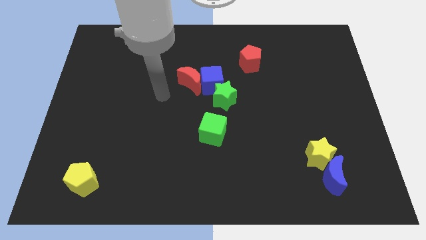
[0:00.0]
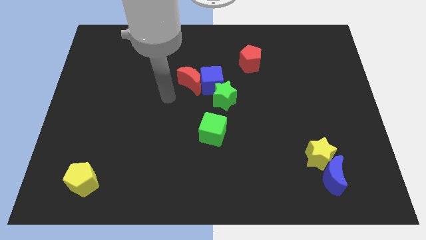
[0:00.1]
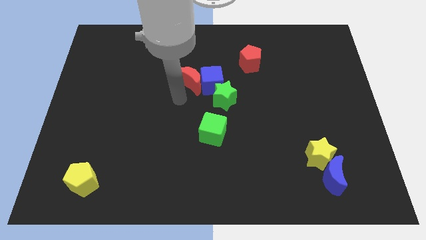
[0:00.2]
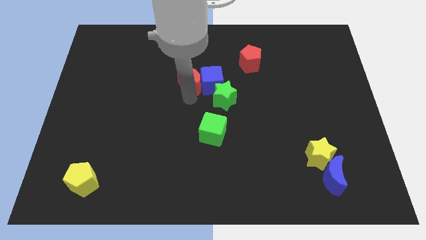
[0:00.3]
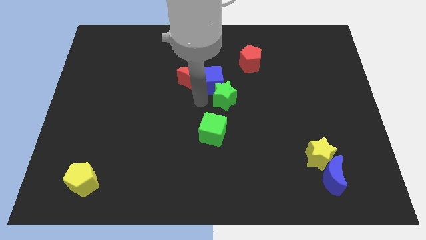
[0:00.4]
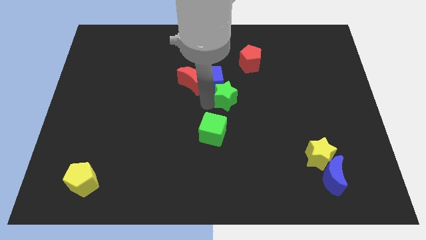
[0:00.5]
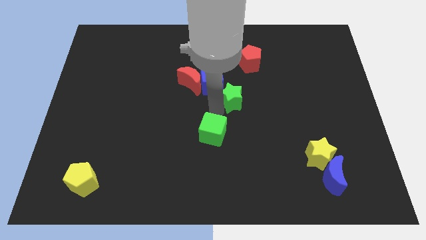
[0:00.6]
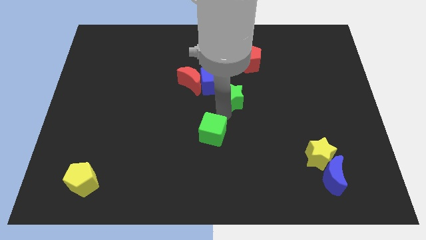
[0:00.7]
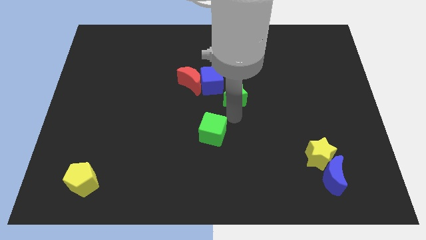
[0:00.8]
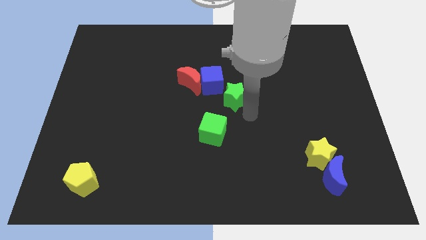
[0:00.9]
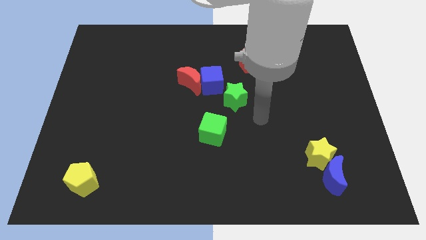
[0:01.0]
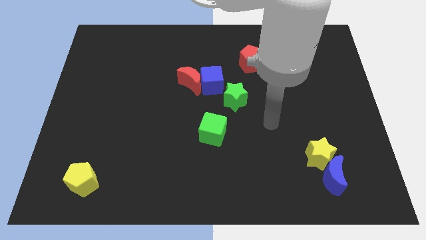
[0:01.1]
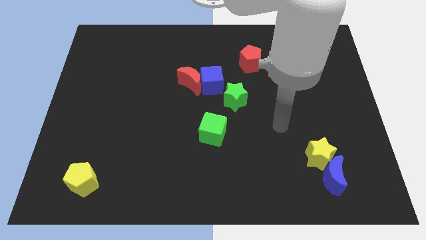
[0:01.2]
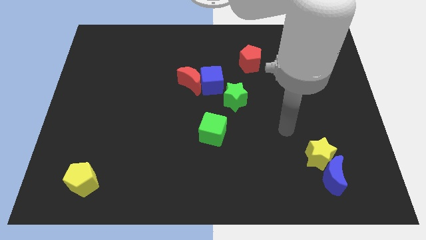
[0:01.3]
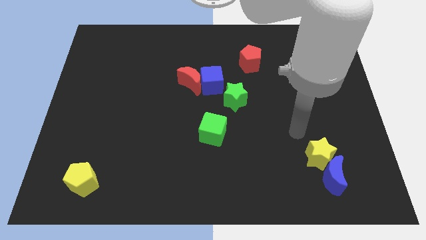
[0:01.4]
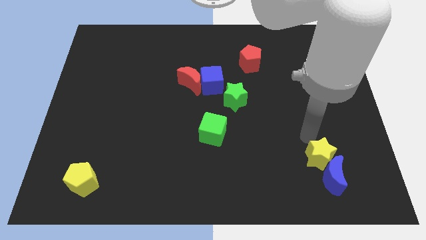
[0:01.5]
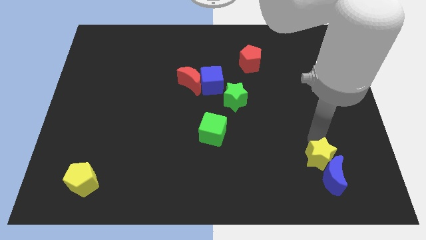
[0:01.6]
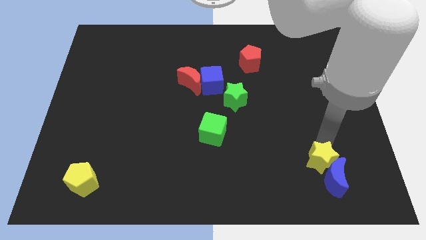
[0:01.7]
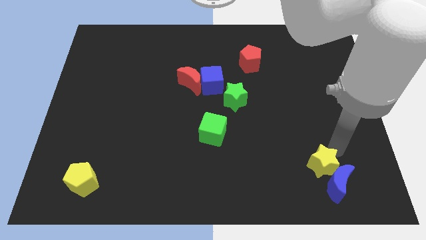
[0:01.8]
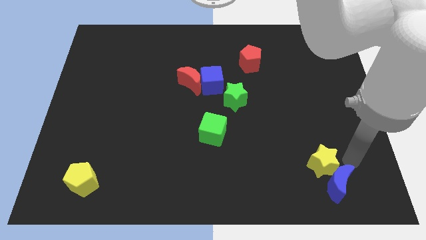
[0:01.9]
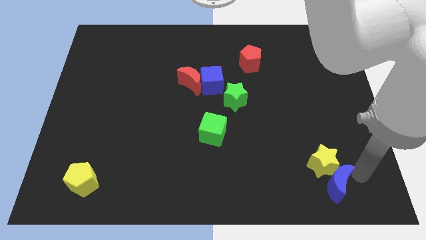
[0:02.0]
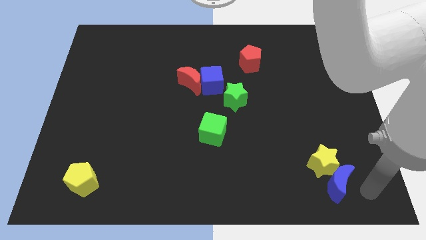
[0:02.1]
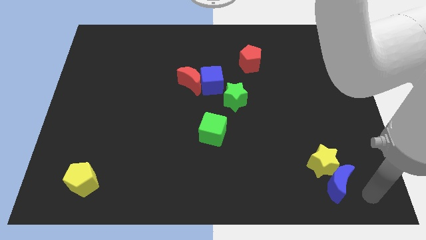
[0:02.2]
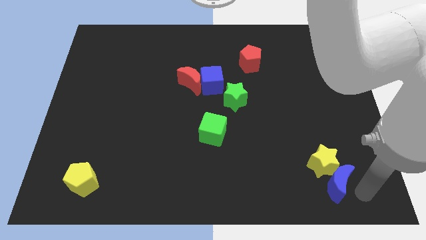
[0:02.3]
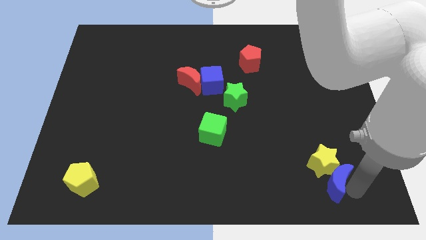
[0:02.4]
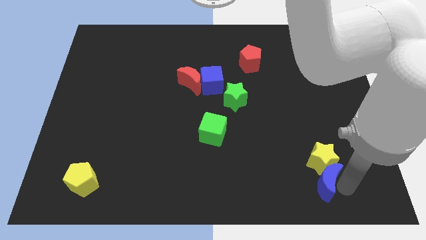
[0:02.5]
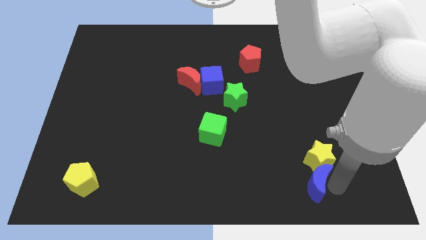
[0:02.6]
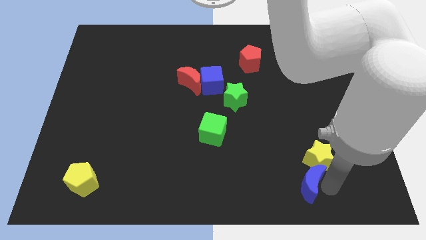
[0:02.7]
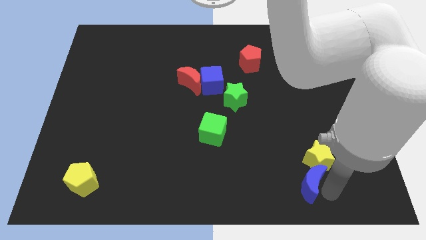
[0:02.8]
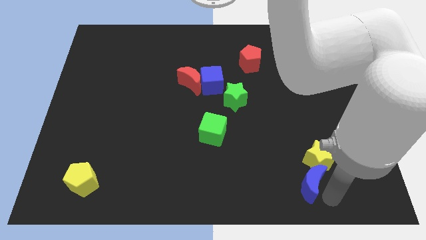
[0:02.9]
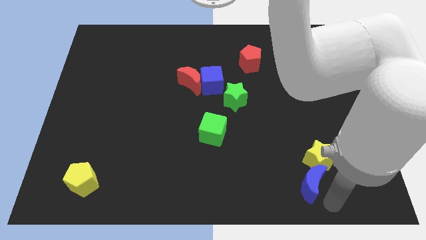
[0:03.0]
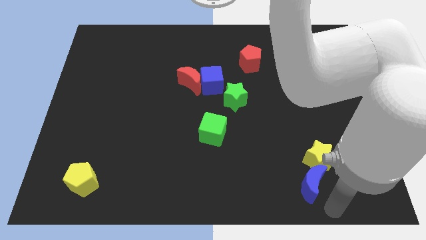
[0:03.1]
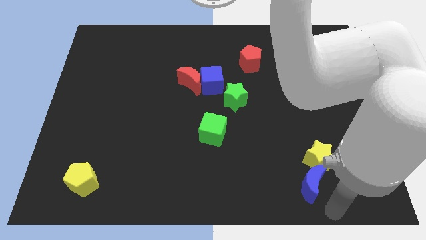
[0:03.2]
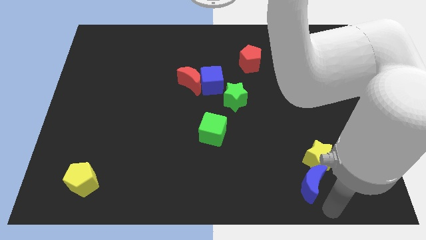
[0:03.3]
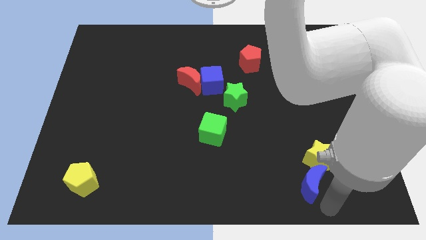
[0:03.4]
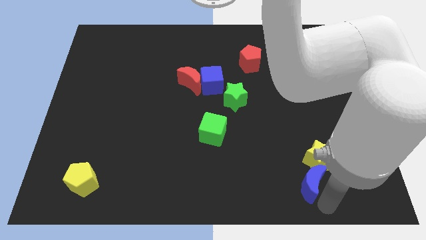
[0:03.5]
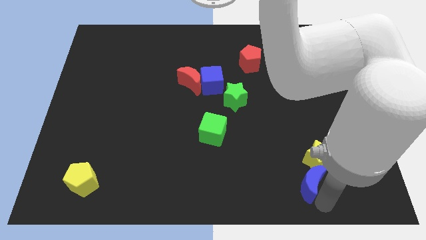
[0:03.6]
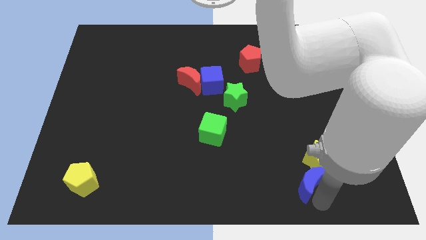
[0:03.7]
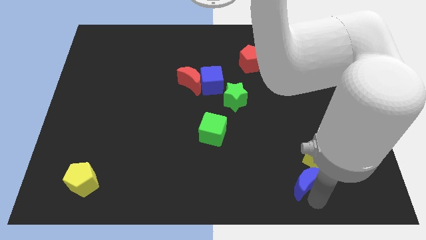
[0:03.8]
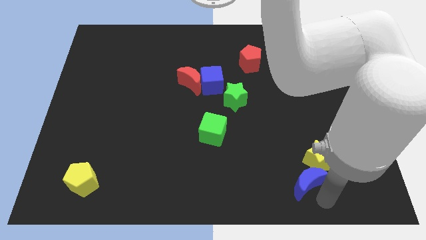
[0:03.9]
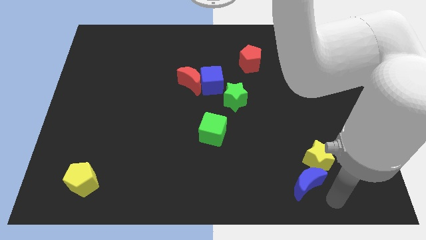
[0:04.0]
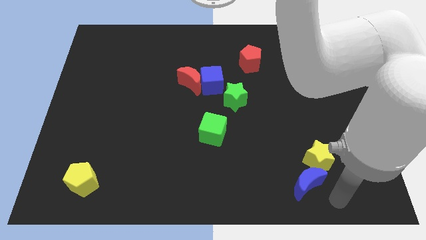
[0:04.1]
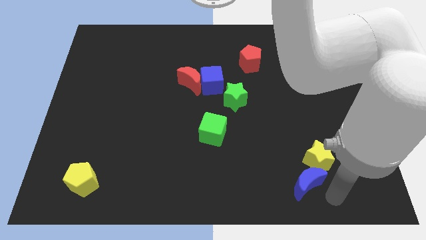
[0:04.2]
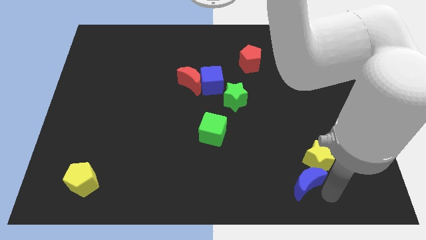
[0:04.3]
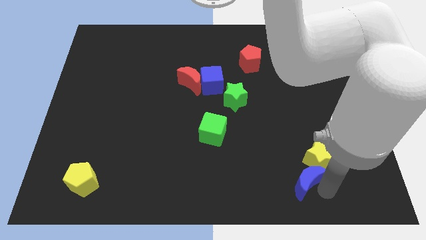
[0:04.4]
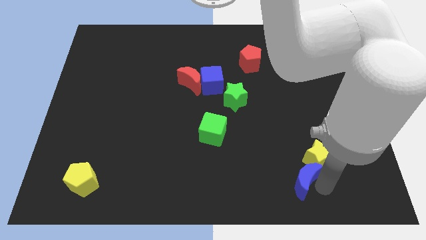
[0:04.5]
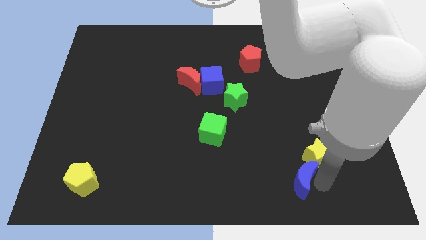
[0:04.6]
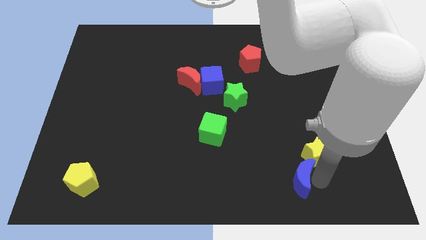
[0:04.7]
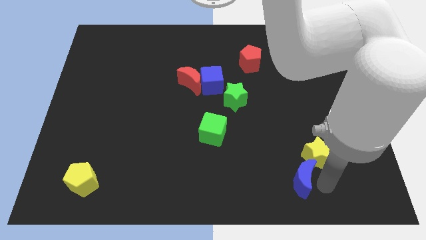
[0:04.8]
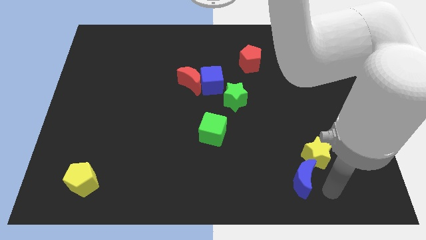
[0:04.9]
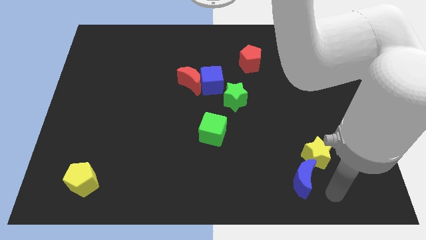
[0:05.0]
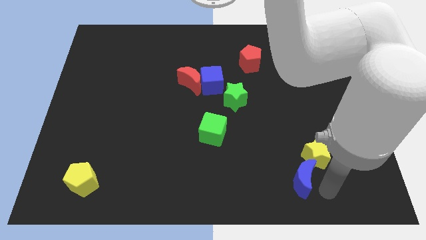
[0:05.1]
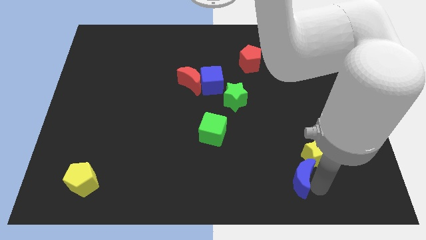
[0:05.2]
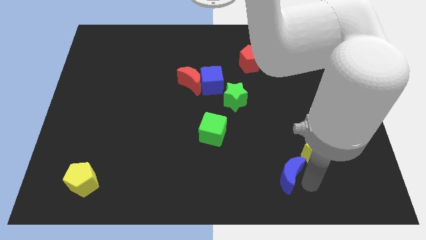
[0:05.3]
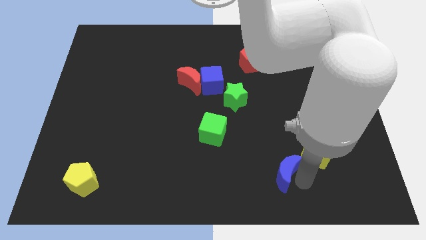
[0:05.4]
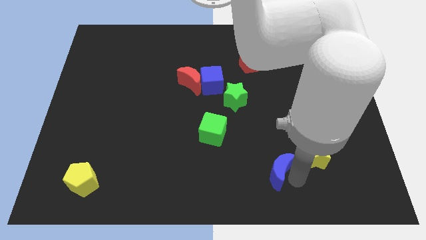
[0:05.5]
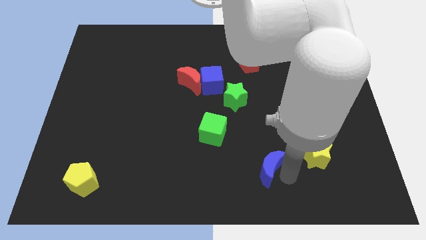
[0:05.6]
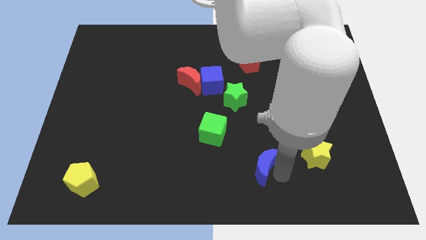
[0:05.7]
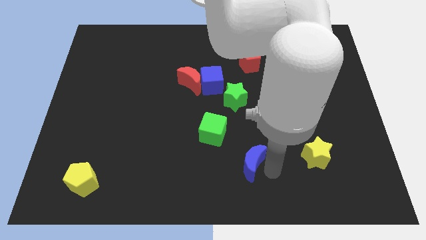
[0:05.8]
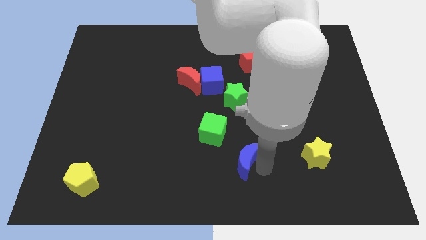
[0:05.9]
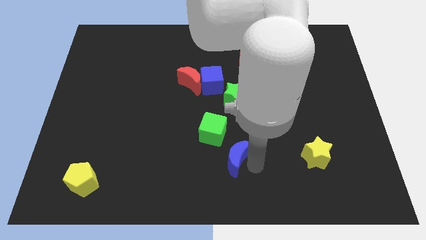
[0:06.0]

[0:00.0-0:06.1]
slide the blue moon below the green star
